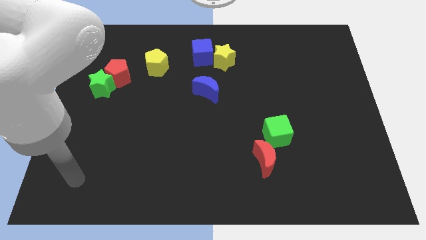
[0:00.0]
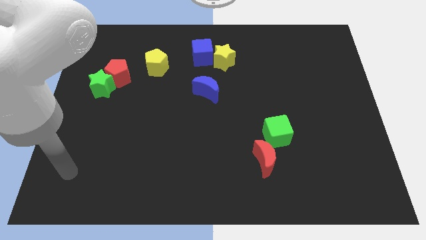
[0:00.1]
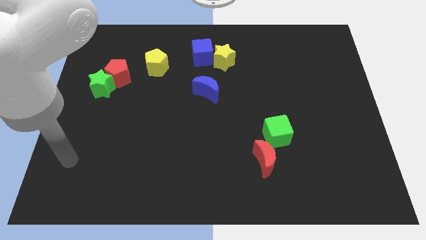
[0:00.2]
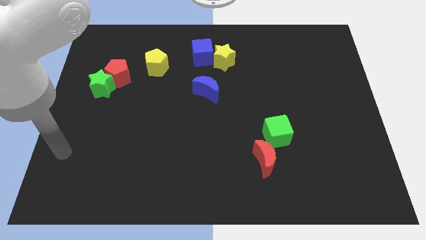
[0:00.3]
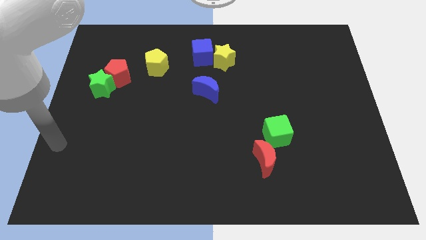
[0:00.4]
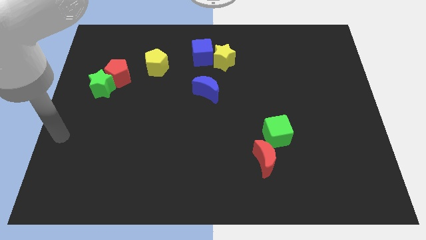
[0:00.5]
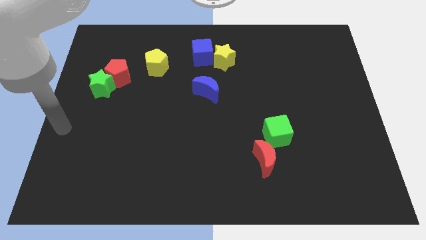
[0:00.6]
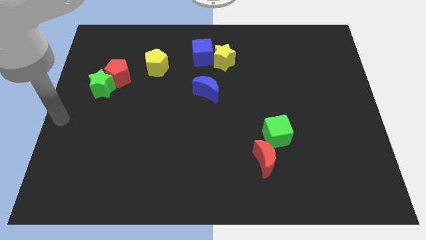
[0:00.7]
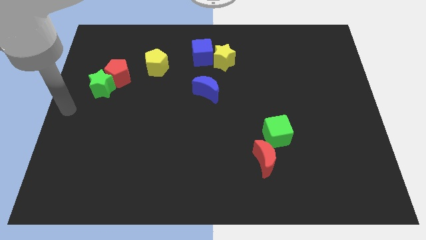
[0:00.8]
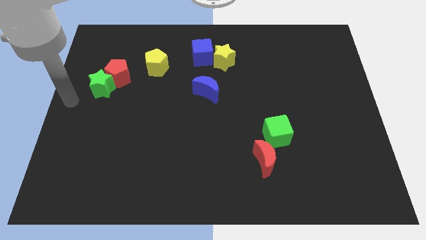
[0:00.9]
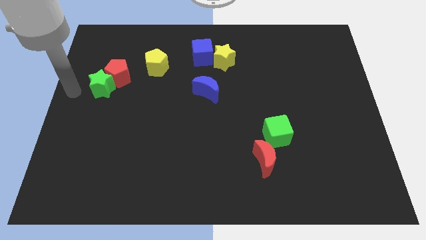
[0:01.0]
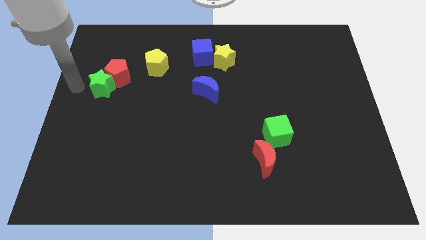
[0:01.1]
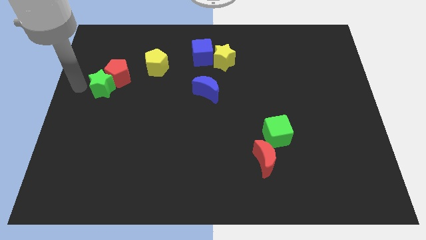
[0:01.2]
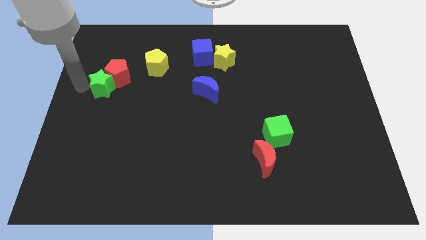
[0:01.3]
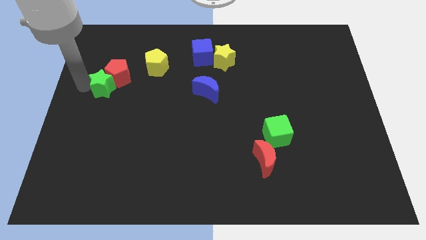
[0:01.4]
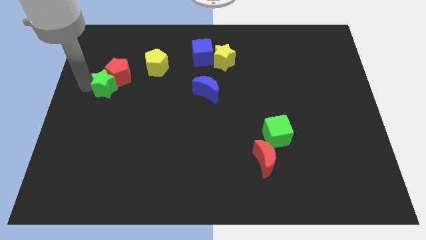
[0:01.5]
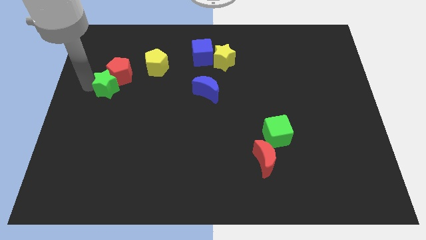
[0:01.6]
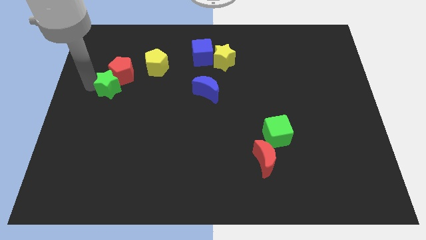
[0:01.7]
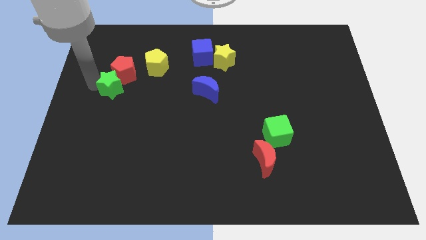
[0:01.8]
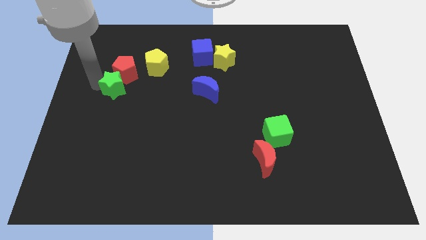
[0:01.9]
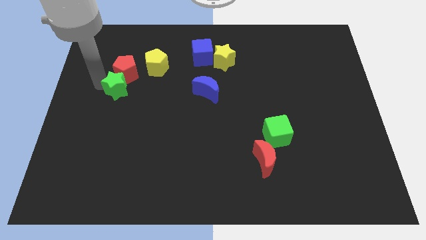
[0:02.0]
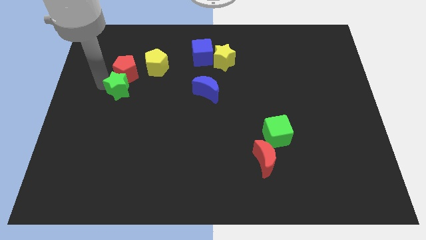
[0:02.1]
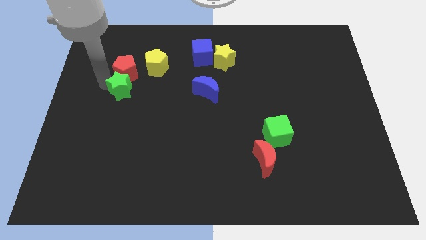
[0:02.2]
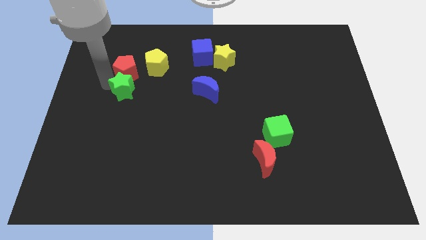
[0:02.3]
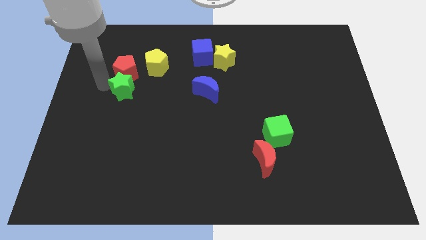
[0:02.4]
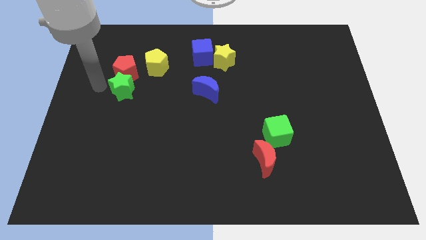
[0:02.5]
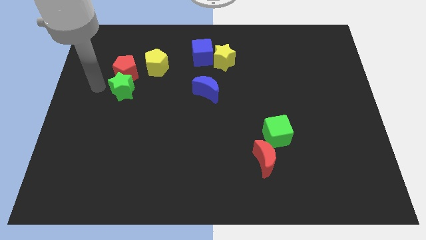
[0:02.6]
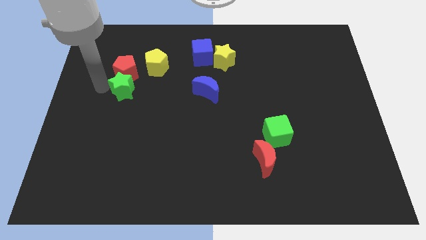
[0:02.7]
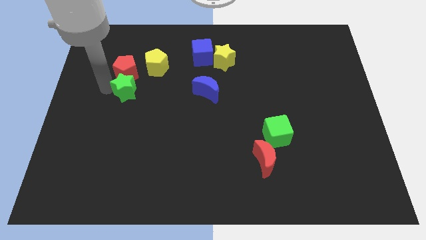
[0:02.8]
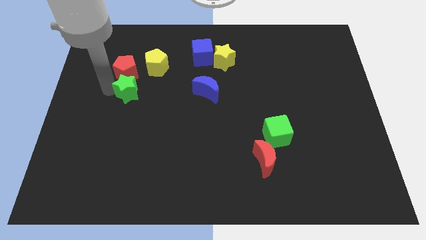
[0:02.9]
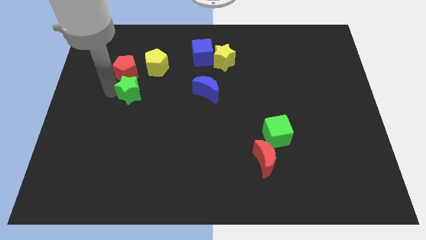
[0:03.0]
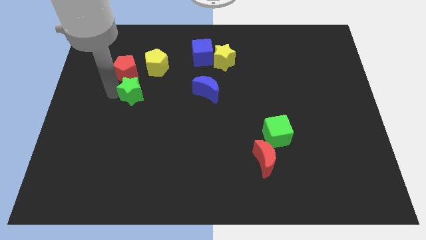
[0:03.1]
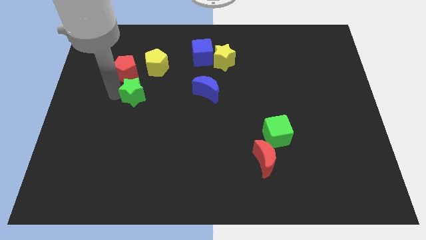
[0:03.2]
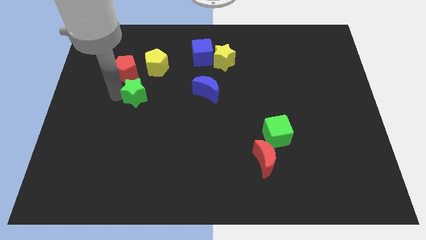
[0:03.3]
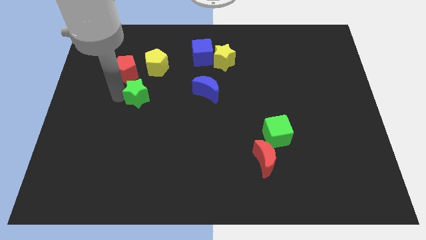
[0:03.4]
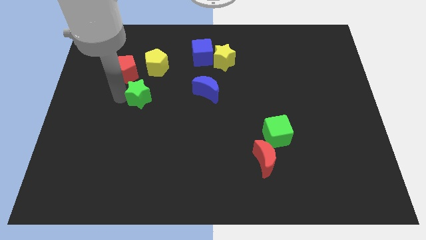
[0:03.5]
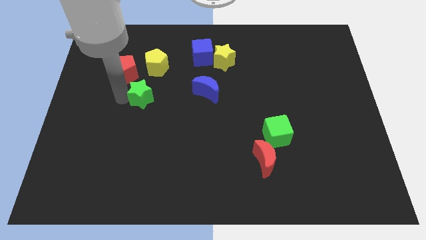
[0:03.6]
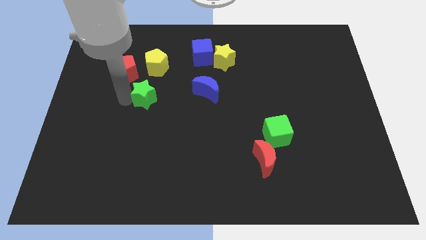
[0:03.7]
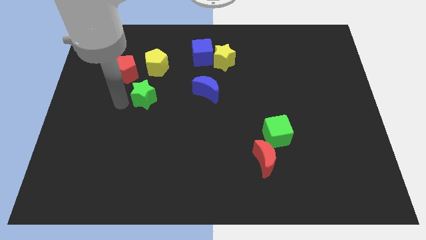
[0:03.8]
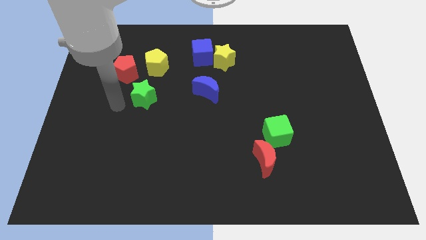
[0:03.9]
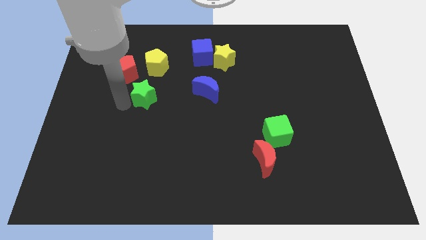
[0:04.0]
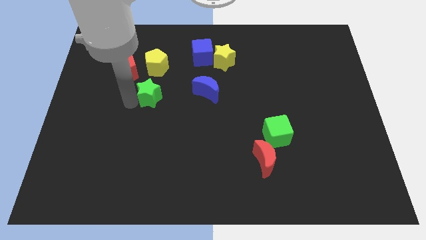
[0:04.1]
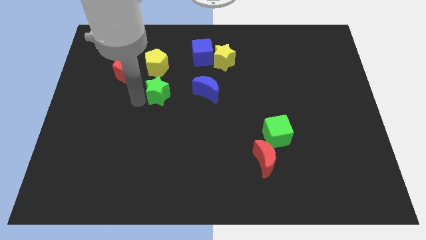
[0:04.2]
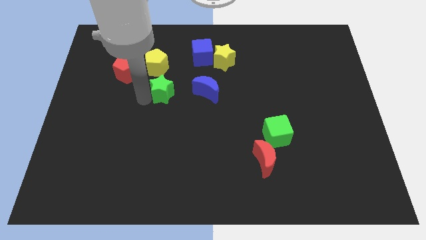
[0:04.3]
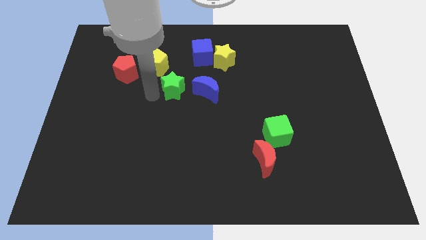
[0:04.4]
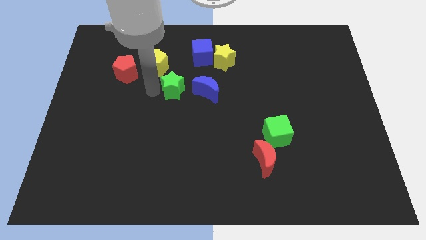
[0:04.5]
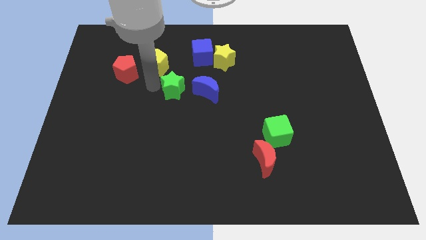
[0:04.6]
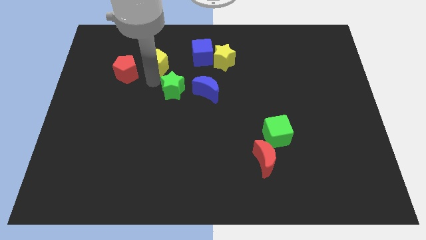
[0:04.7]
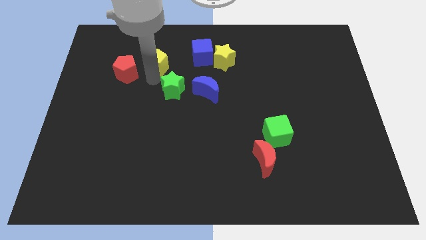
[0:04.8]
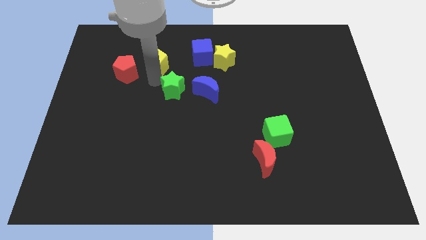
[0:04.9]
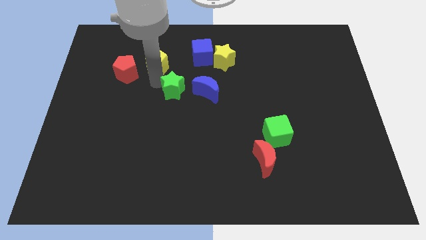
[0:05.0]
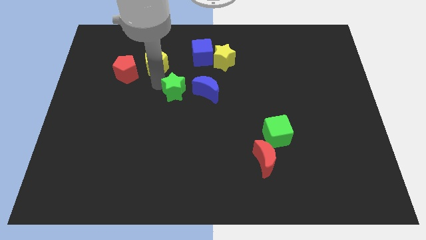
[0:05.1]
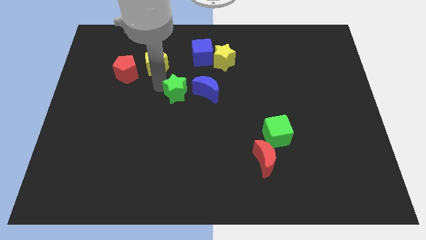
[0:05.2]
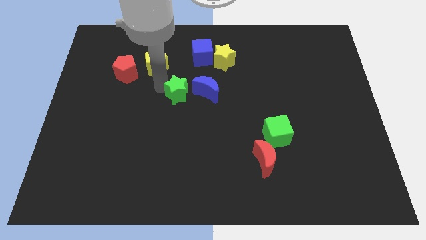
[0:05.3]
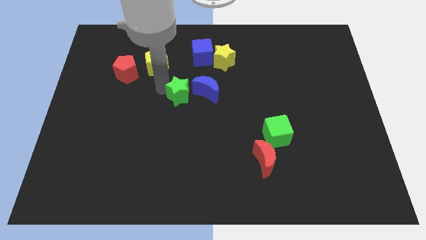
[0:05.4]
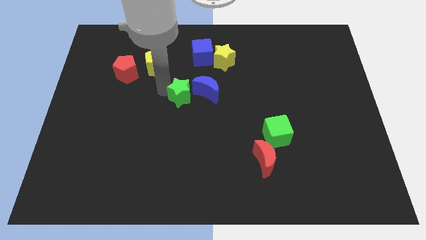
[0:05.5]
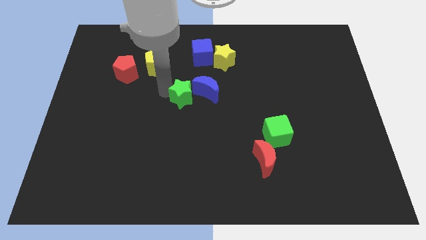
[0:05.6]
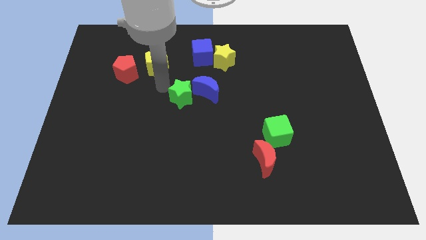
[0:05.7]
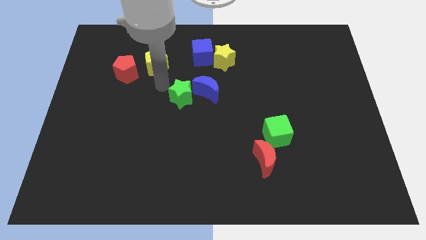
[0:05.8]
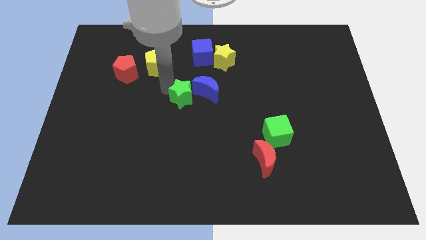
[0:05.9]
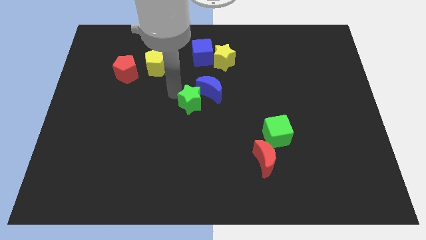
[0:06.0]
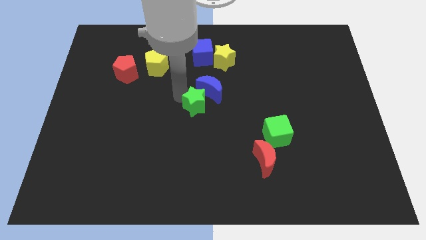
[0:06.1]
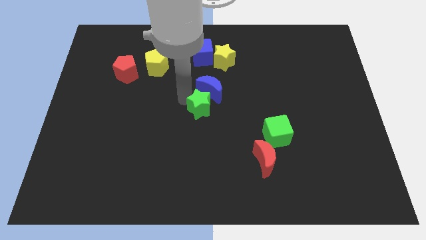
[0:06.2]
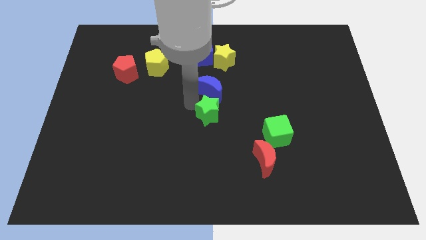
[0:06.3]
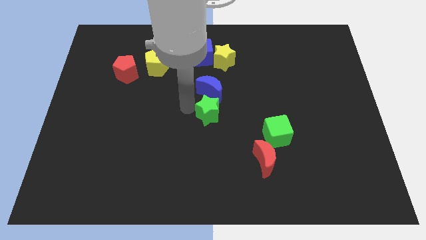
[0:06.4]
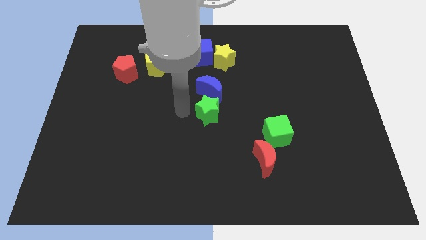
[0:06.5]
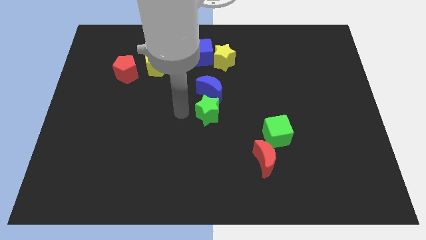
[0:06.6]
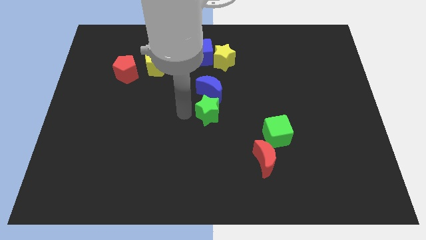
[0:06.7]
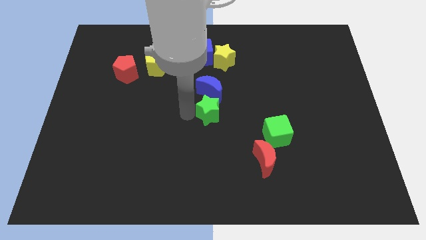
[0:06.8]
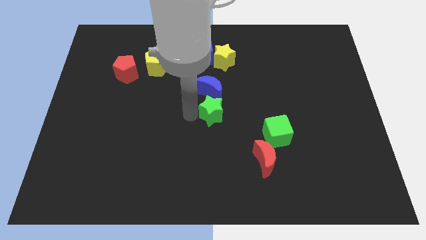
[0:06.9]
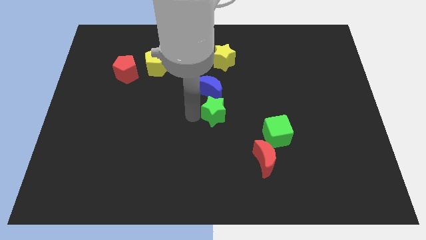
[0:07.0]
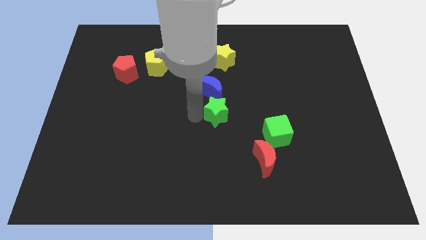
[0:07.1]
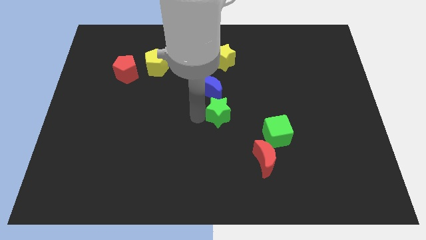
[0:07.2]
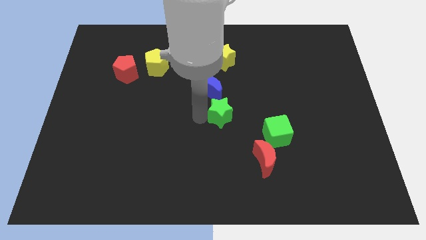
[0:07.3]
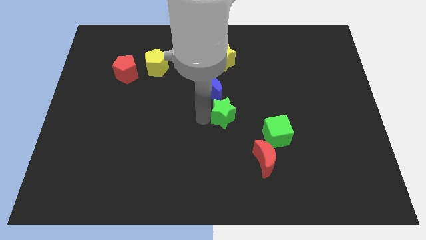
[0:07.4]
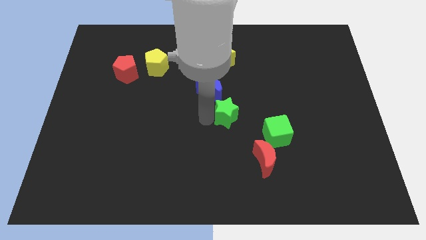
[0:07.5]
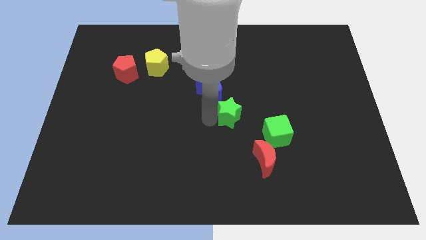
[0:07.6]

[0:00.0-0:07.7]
push the green star to the top left side of the green cube
